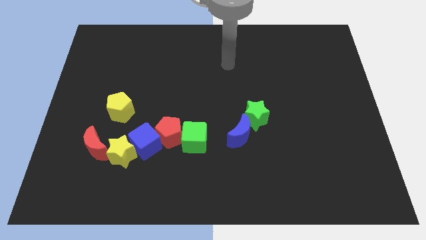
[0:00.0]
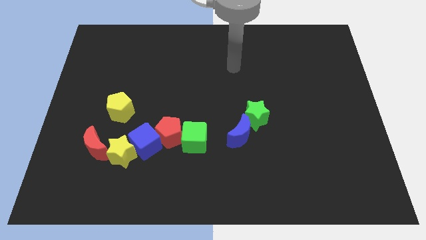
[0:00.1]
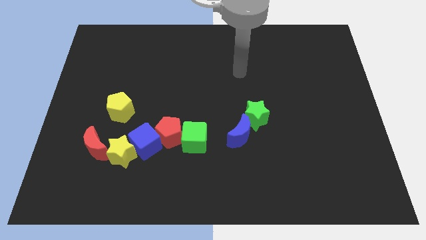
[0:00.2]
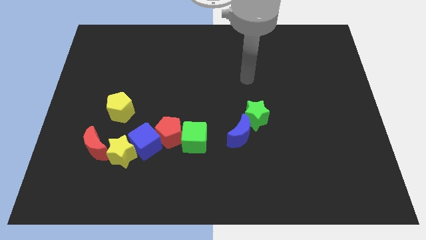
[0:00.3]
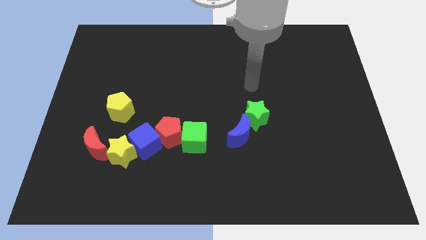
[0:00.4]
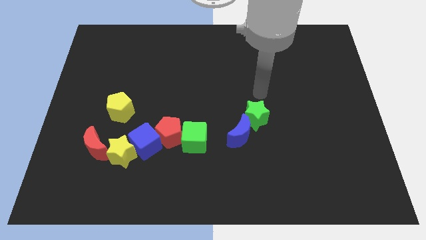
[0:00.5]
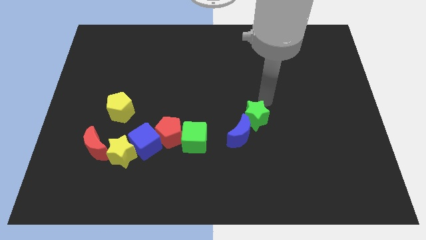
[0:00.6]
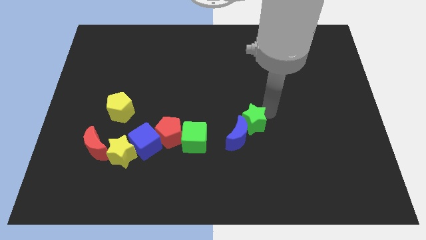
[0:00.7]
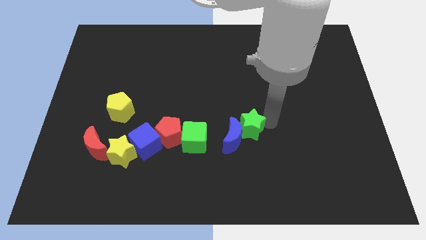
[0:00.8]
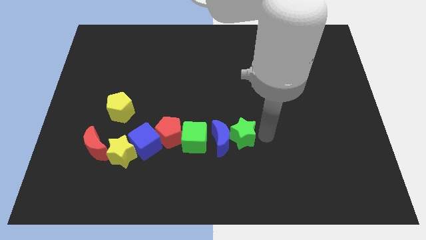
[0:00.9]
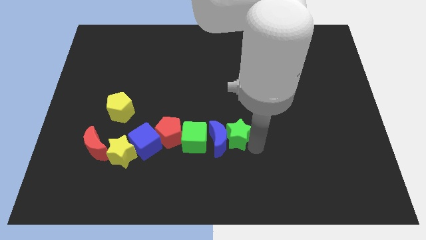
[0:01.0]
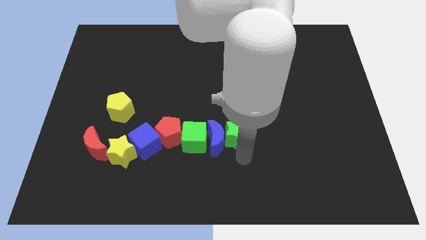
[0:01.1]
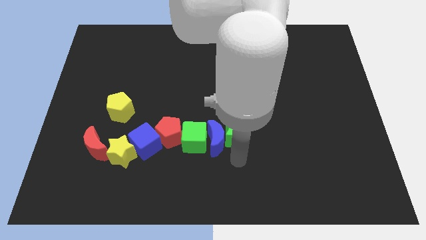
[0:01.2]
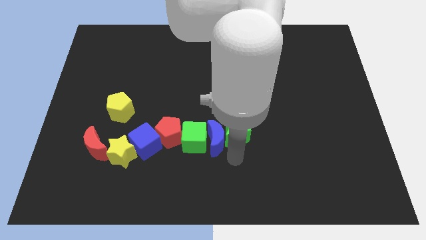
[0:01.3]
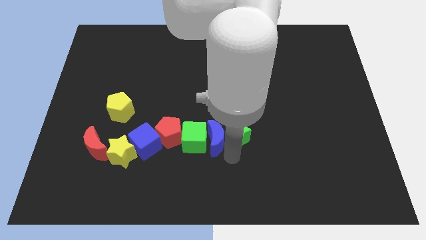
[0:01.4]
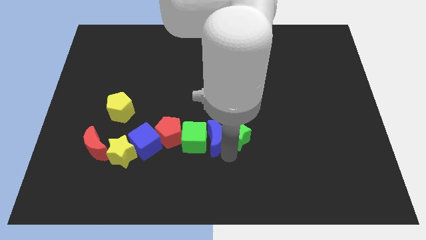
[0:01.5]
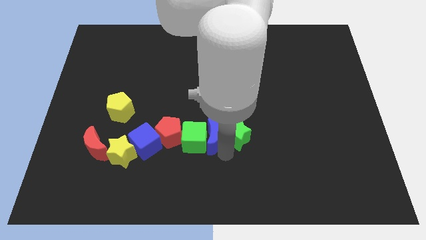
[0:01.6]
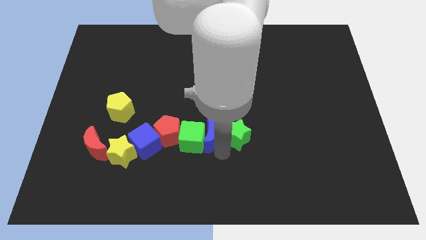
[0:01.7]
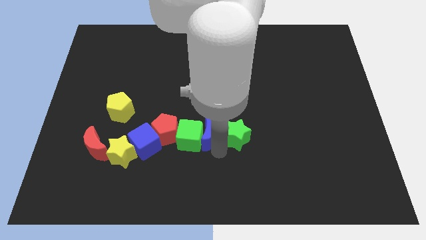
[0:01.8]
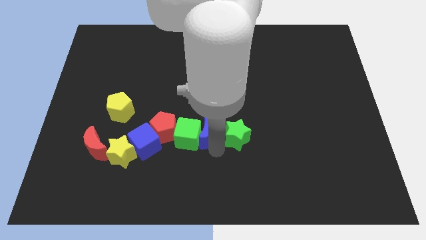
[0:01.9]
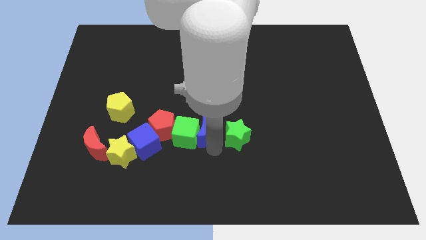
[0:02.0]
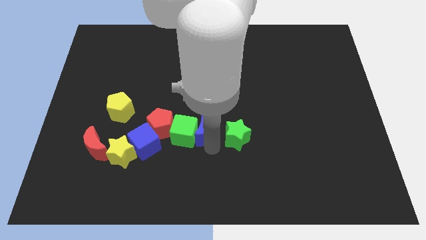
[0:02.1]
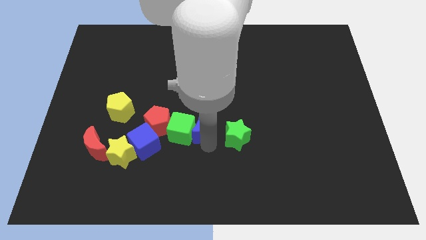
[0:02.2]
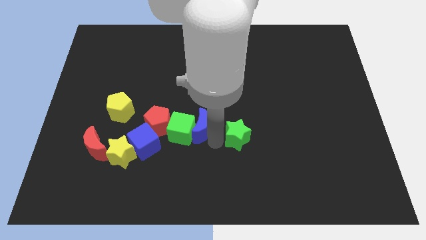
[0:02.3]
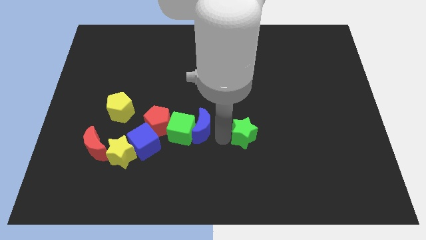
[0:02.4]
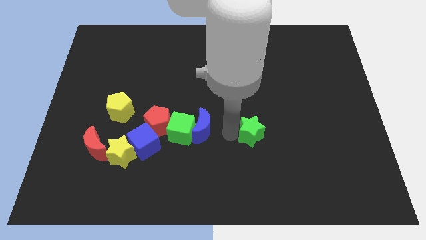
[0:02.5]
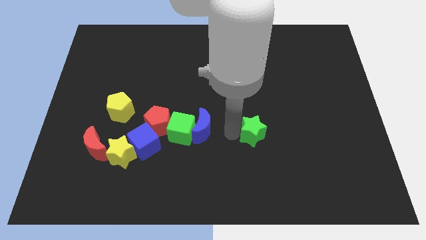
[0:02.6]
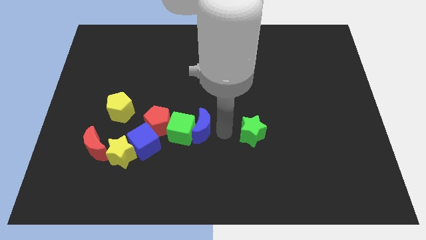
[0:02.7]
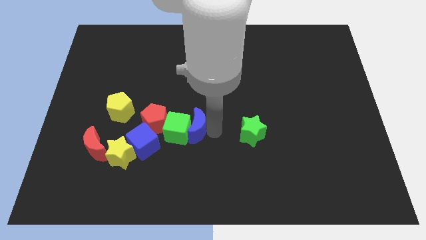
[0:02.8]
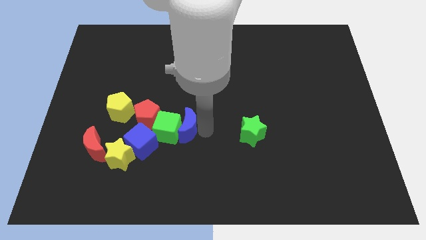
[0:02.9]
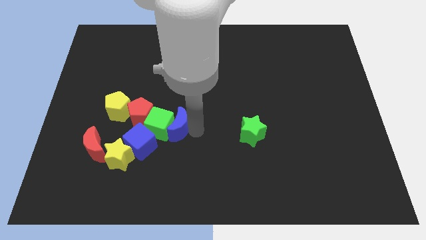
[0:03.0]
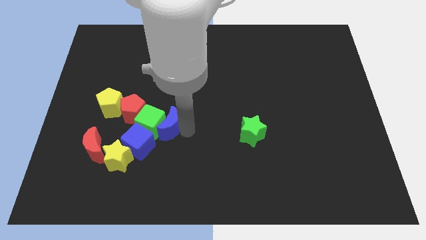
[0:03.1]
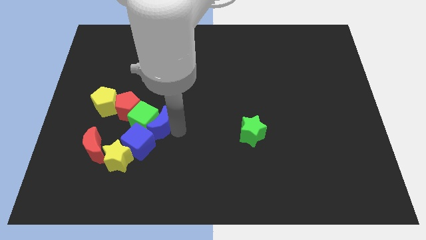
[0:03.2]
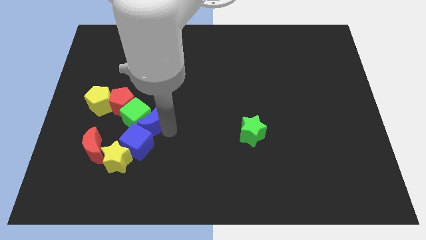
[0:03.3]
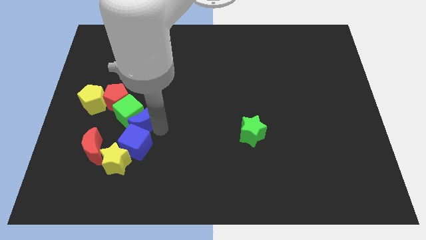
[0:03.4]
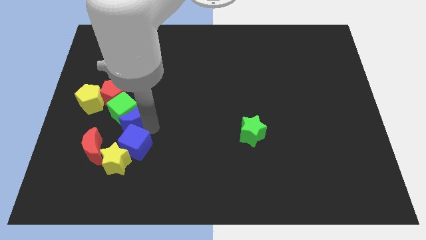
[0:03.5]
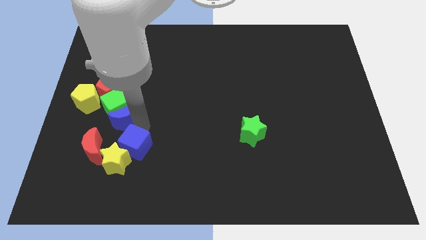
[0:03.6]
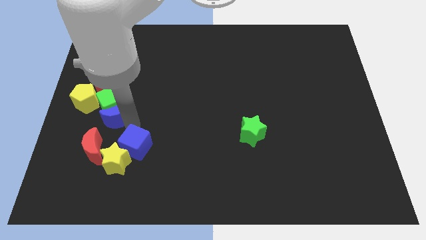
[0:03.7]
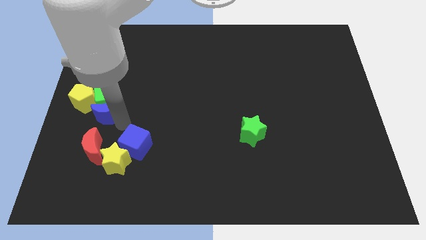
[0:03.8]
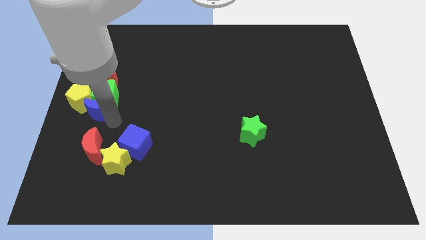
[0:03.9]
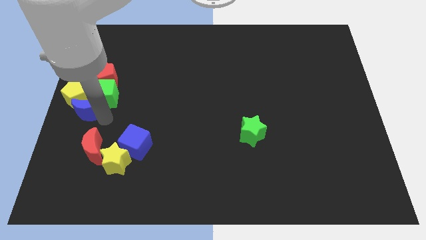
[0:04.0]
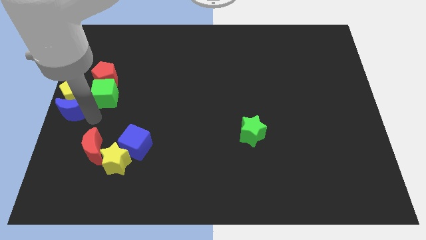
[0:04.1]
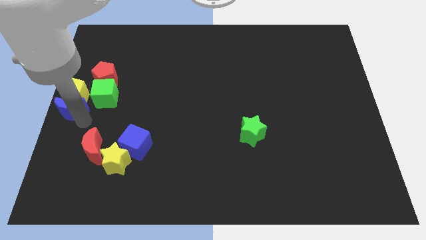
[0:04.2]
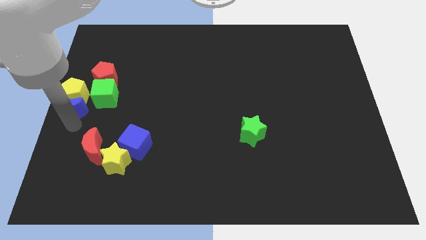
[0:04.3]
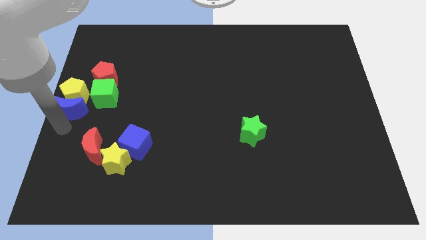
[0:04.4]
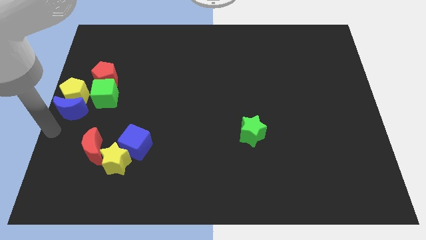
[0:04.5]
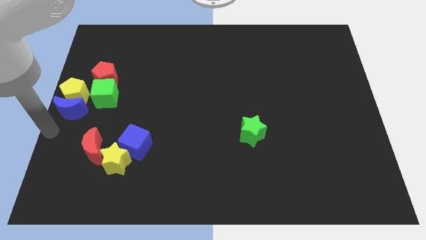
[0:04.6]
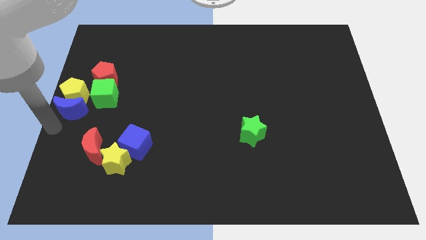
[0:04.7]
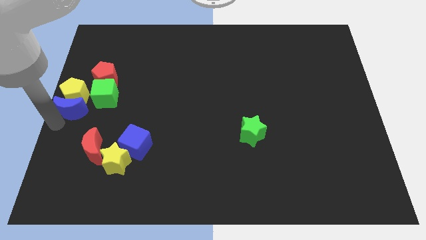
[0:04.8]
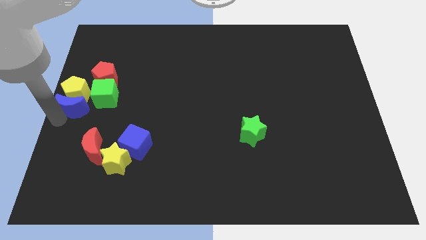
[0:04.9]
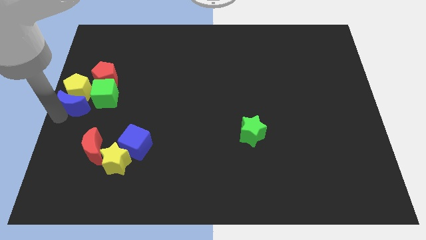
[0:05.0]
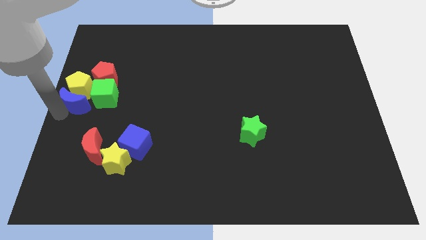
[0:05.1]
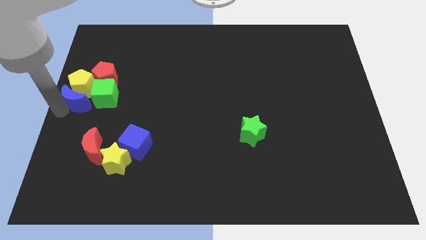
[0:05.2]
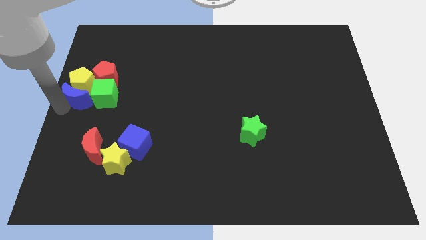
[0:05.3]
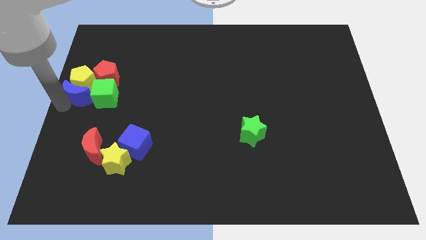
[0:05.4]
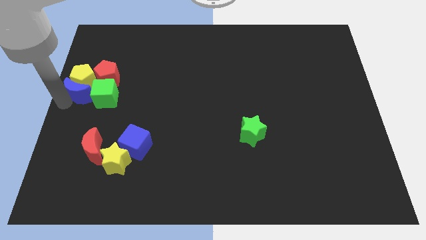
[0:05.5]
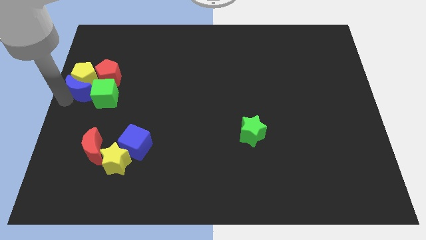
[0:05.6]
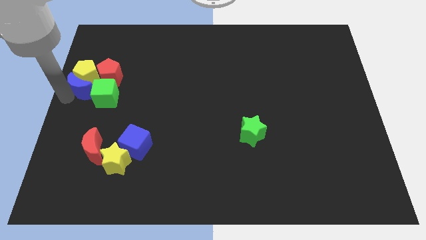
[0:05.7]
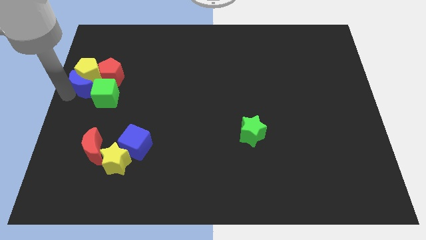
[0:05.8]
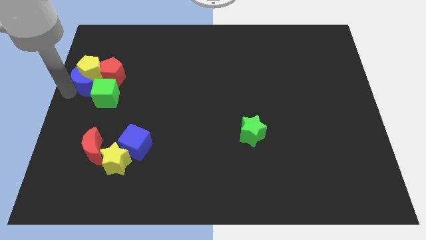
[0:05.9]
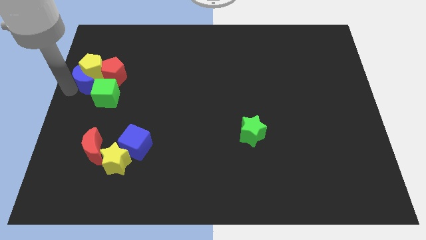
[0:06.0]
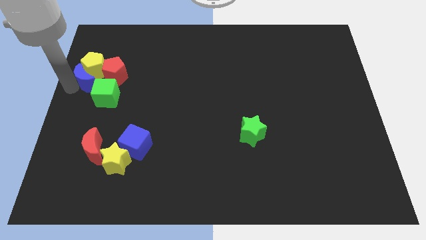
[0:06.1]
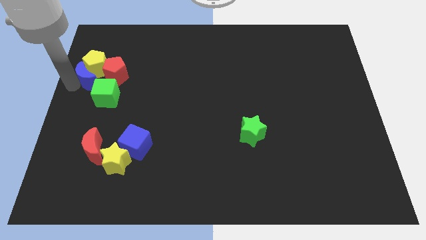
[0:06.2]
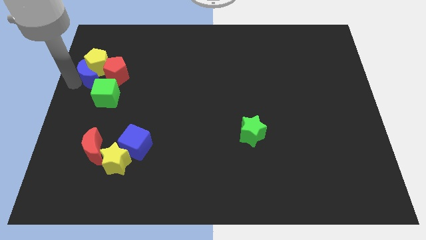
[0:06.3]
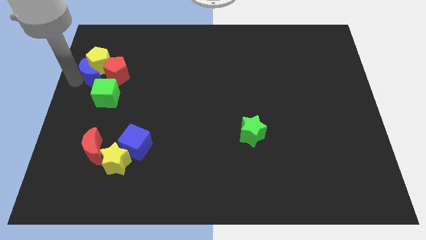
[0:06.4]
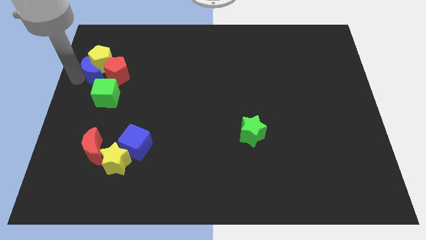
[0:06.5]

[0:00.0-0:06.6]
move the blue moon towards the red pentagon
